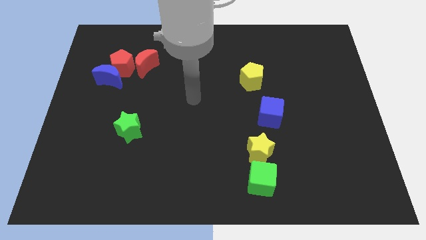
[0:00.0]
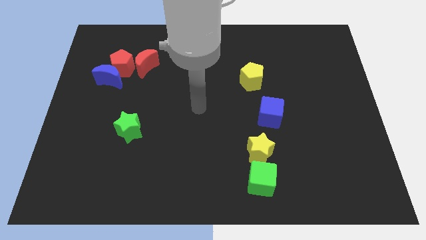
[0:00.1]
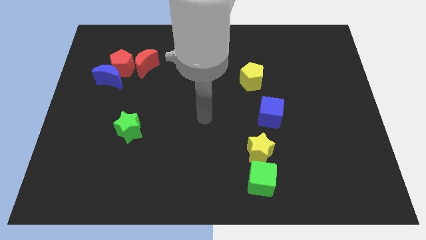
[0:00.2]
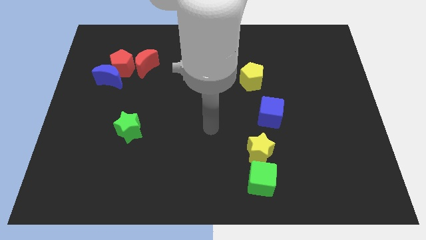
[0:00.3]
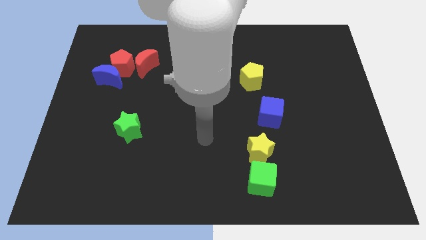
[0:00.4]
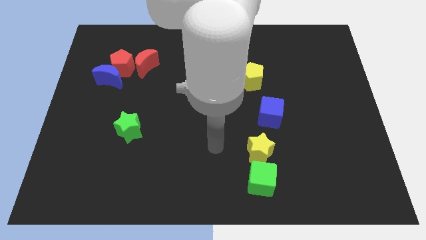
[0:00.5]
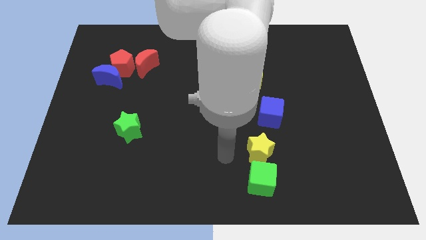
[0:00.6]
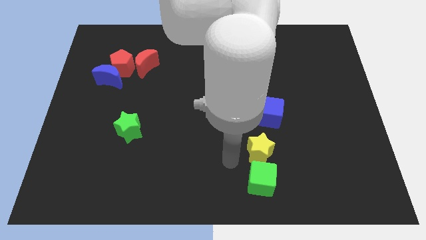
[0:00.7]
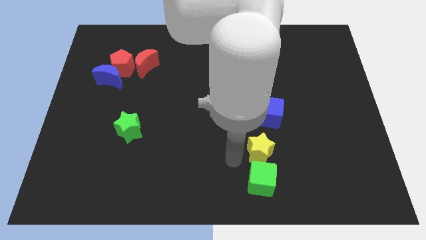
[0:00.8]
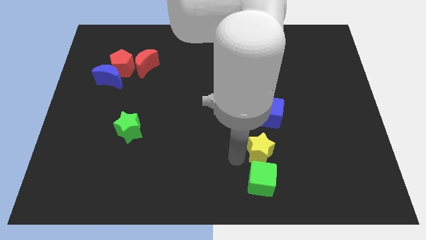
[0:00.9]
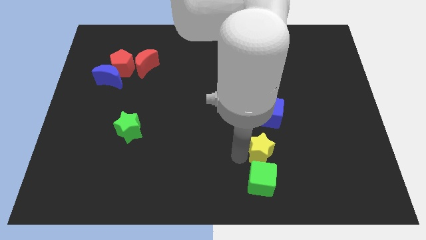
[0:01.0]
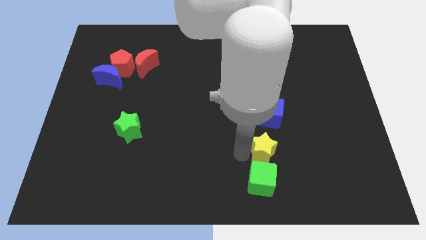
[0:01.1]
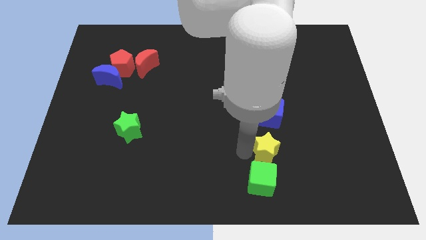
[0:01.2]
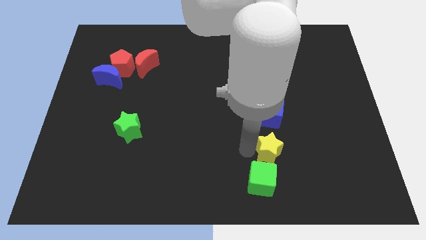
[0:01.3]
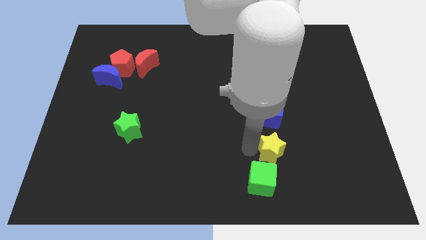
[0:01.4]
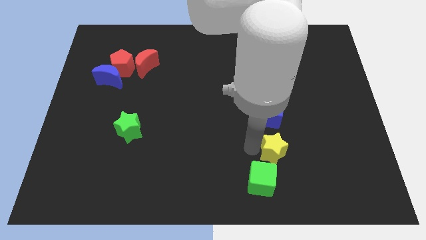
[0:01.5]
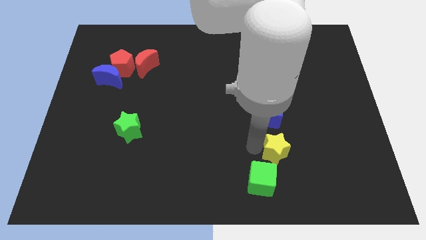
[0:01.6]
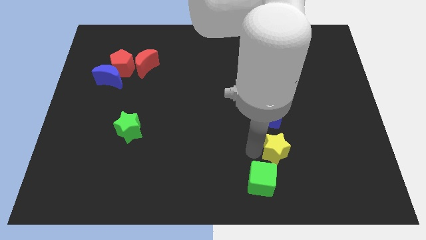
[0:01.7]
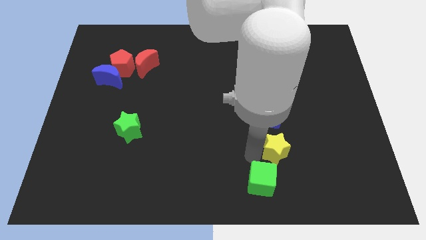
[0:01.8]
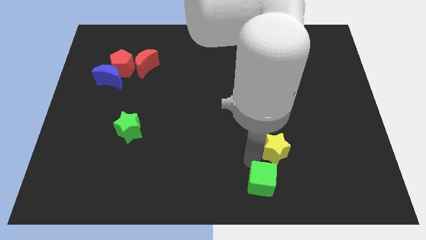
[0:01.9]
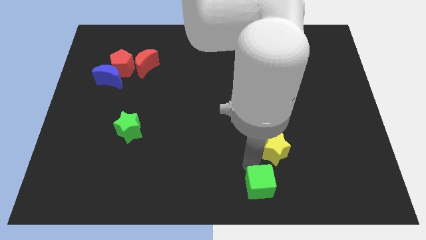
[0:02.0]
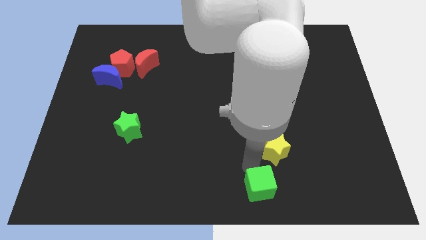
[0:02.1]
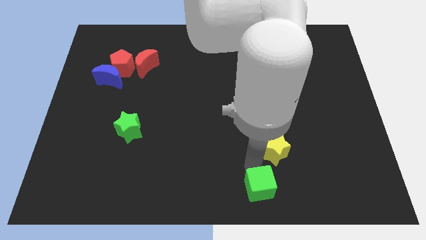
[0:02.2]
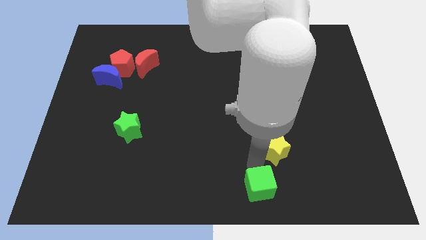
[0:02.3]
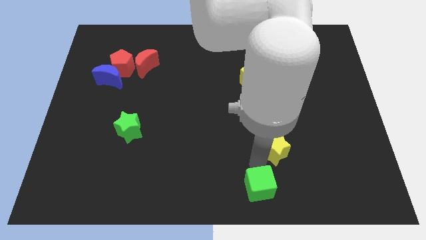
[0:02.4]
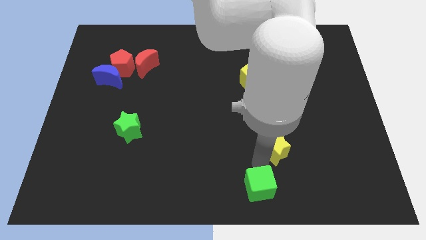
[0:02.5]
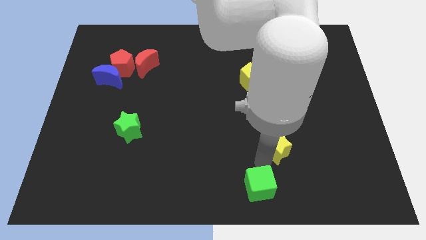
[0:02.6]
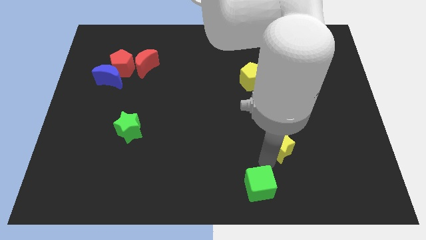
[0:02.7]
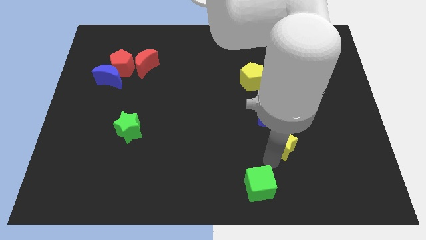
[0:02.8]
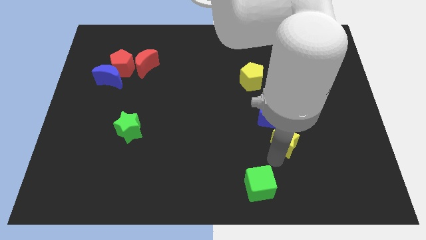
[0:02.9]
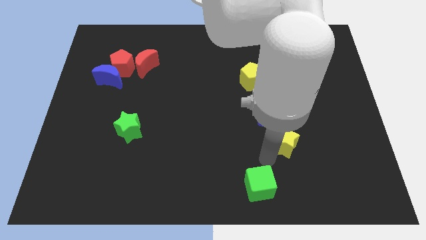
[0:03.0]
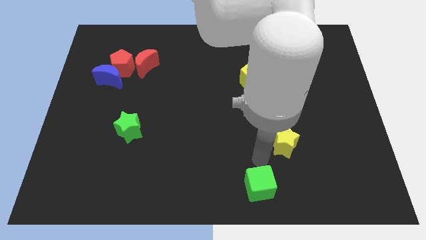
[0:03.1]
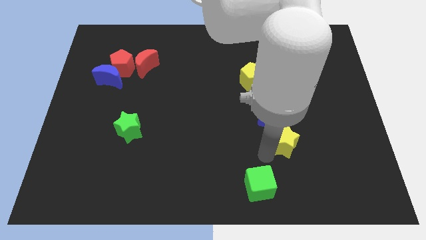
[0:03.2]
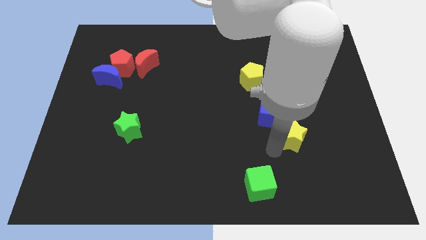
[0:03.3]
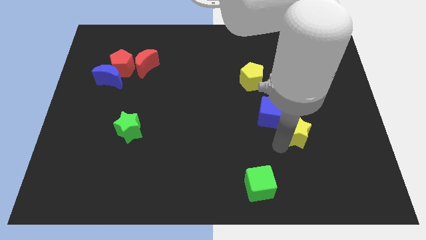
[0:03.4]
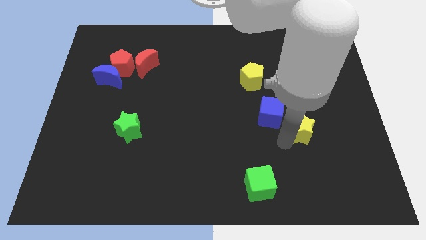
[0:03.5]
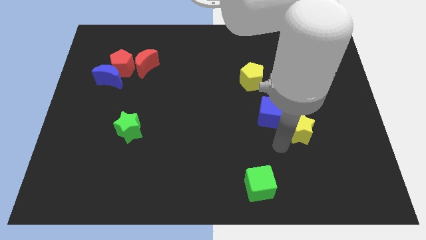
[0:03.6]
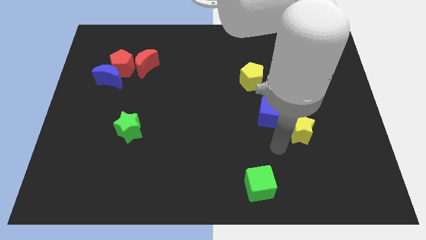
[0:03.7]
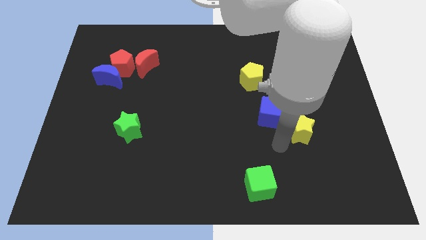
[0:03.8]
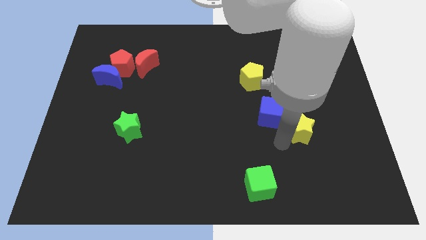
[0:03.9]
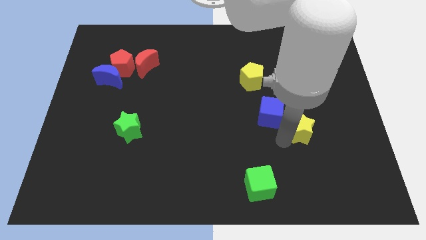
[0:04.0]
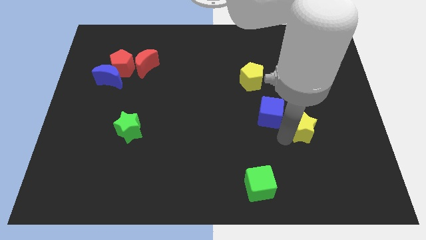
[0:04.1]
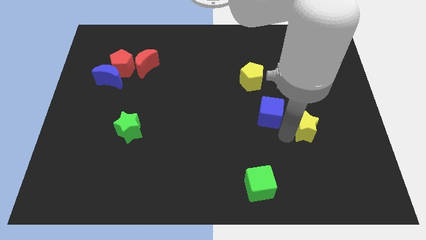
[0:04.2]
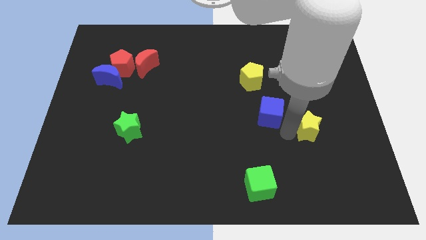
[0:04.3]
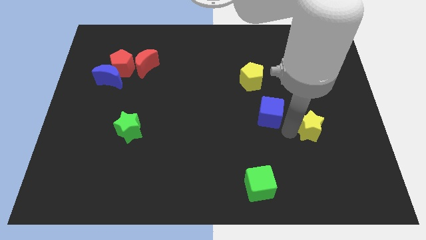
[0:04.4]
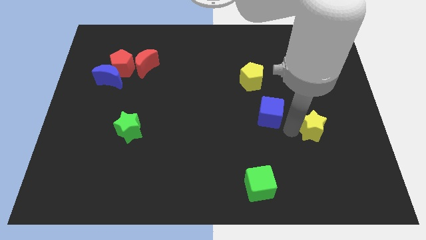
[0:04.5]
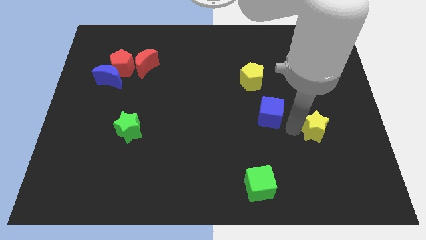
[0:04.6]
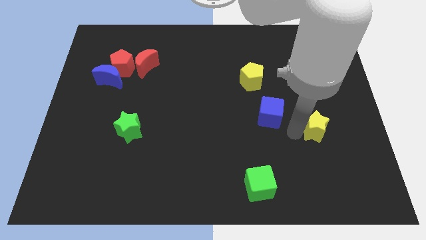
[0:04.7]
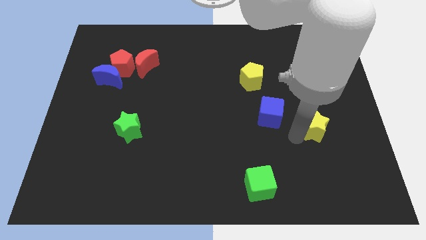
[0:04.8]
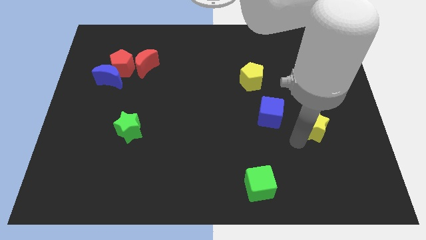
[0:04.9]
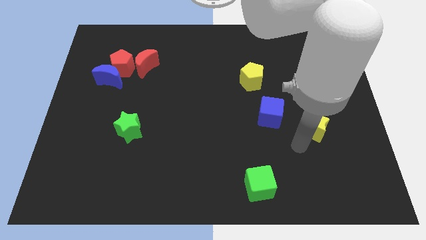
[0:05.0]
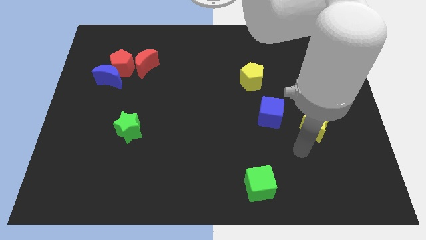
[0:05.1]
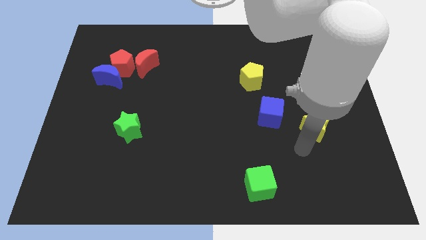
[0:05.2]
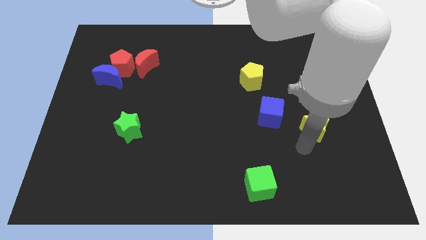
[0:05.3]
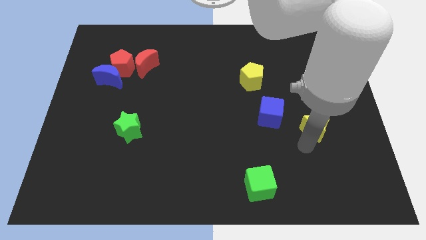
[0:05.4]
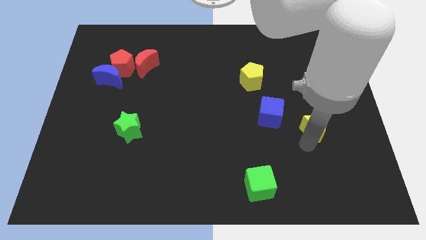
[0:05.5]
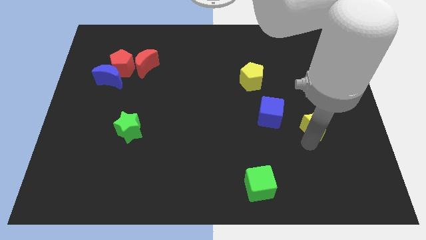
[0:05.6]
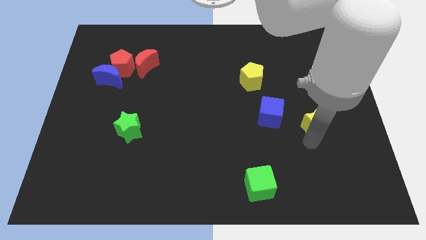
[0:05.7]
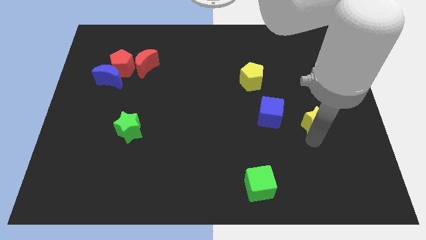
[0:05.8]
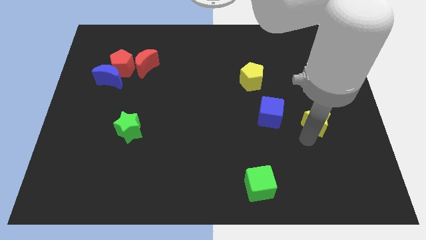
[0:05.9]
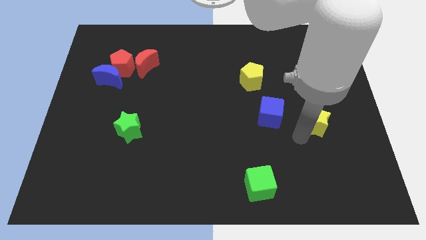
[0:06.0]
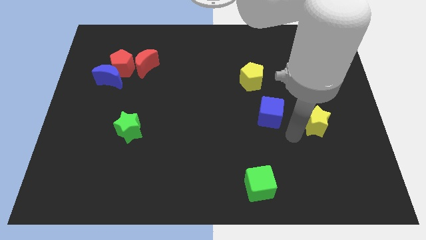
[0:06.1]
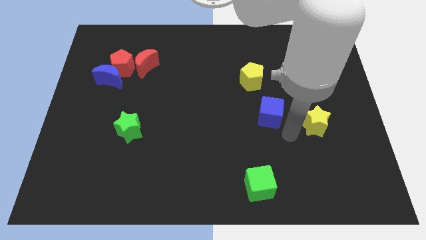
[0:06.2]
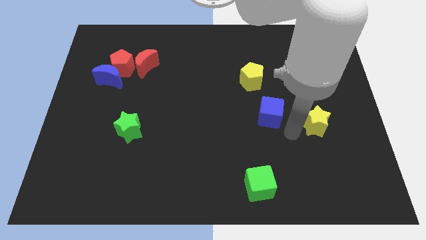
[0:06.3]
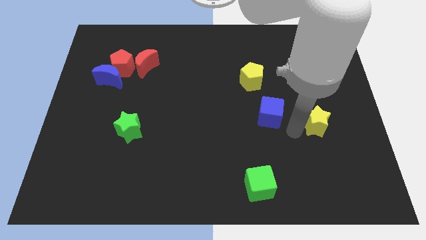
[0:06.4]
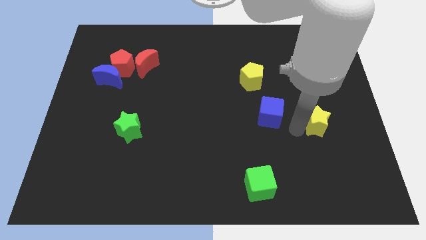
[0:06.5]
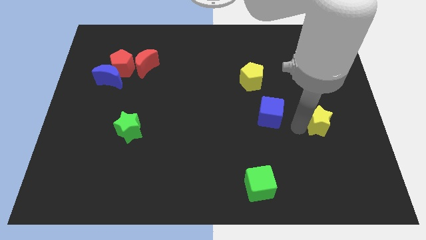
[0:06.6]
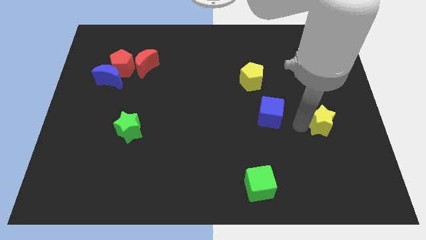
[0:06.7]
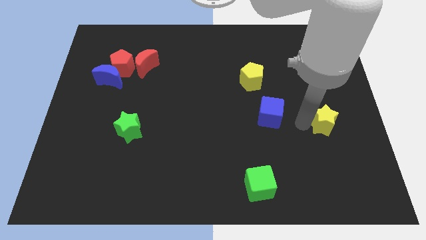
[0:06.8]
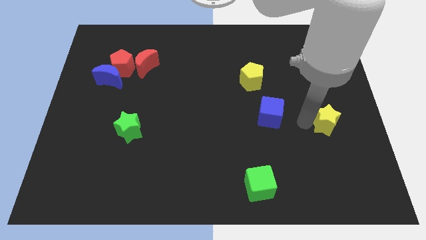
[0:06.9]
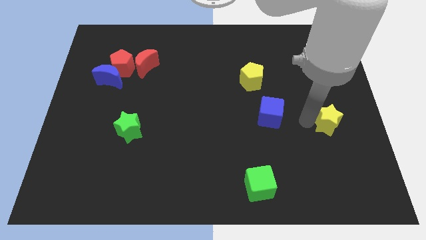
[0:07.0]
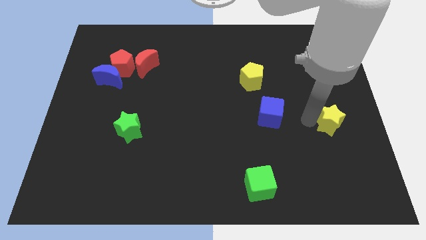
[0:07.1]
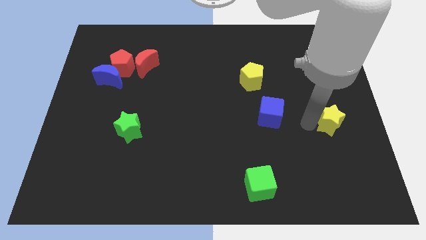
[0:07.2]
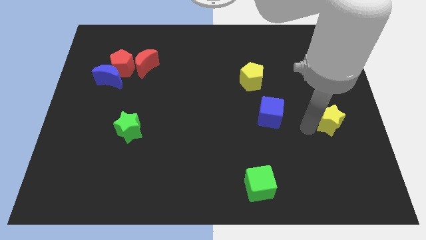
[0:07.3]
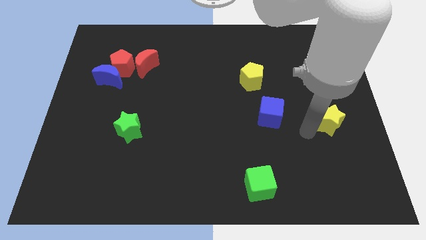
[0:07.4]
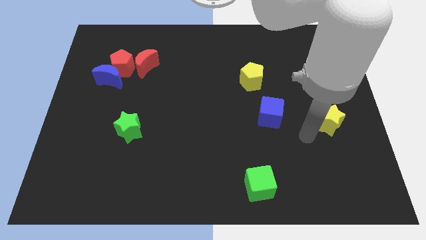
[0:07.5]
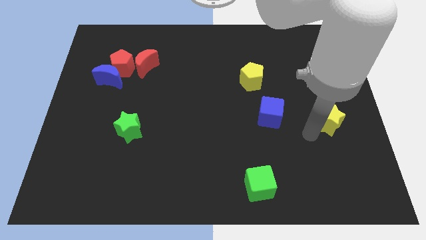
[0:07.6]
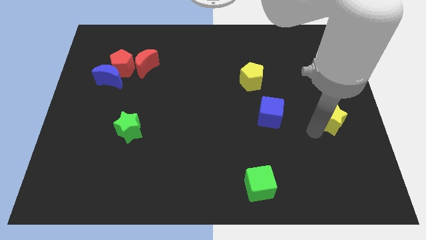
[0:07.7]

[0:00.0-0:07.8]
slide the yellow star to the right side of the board
